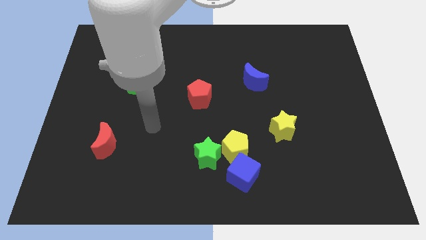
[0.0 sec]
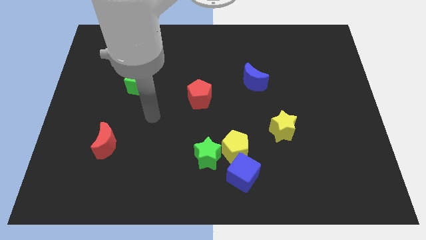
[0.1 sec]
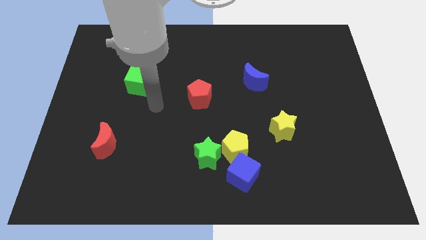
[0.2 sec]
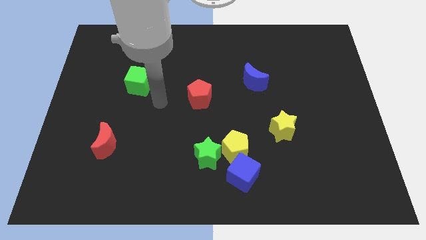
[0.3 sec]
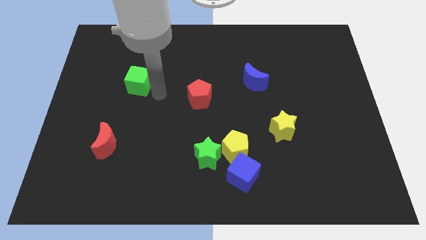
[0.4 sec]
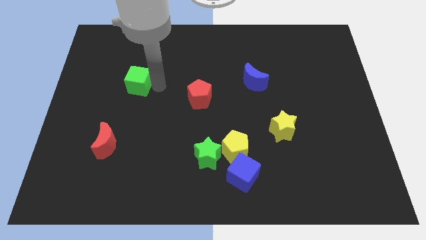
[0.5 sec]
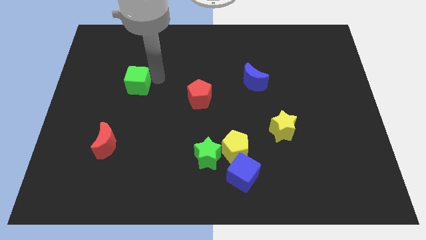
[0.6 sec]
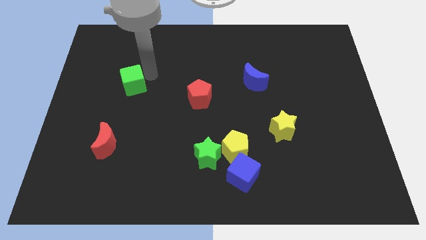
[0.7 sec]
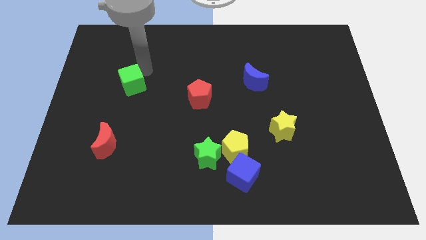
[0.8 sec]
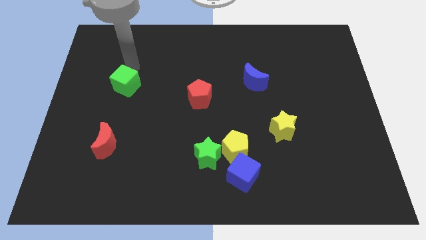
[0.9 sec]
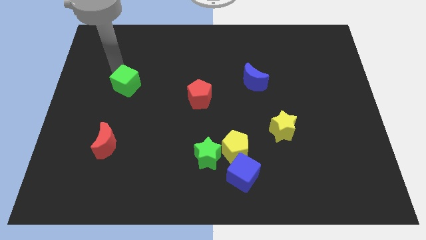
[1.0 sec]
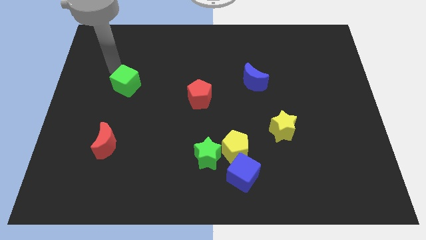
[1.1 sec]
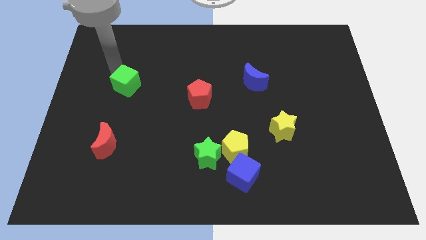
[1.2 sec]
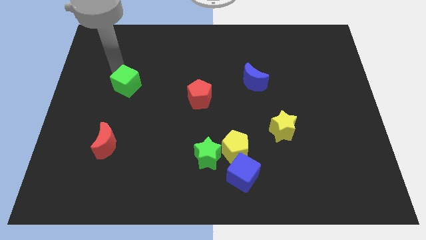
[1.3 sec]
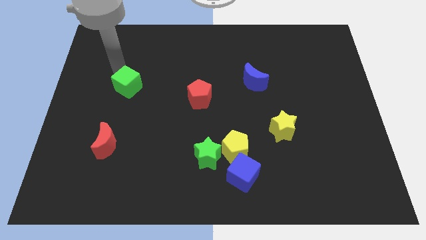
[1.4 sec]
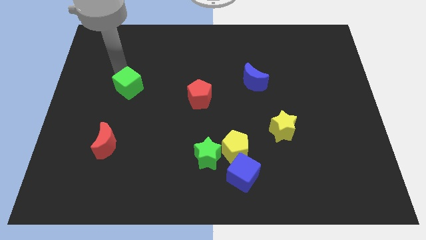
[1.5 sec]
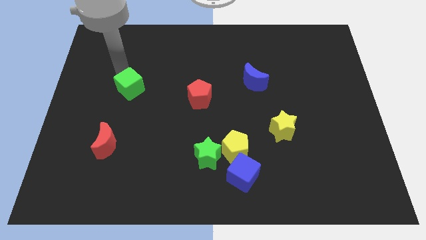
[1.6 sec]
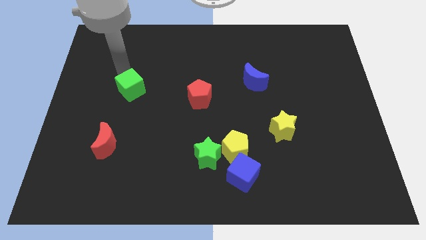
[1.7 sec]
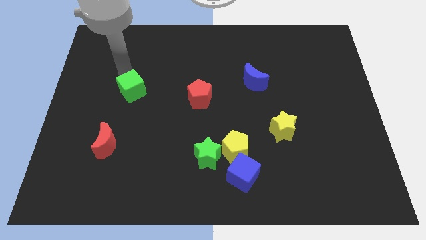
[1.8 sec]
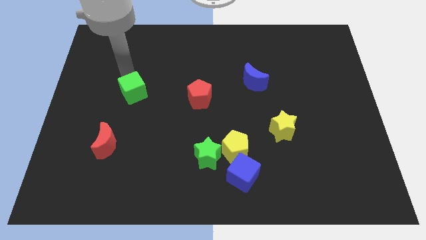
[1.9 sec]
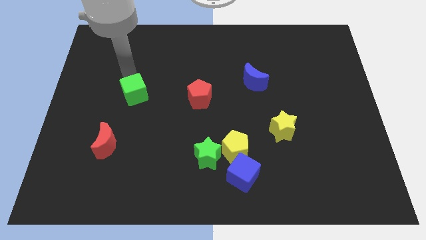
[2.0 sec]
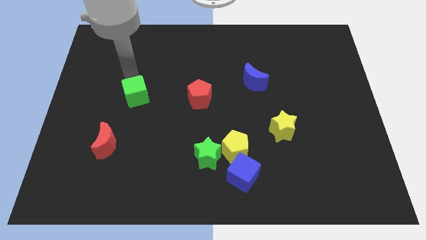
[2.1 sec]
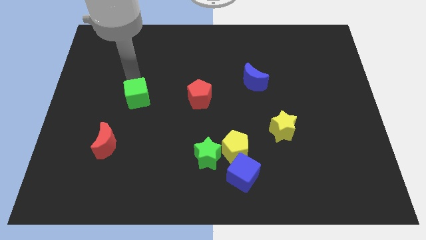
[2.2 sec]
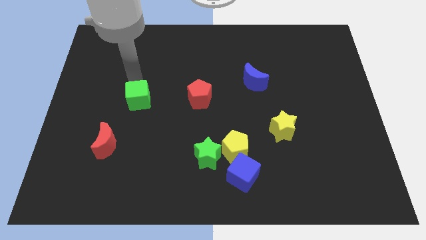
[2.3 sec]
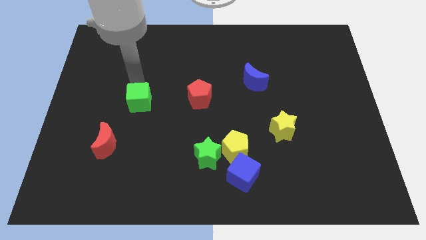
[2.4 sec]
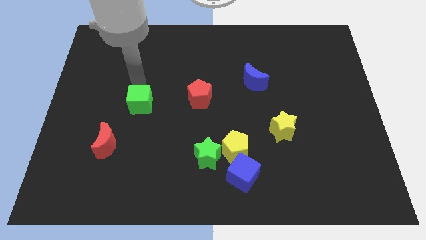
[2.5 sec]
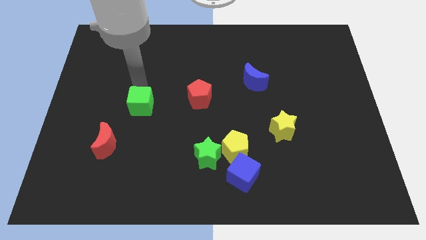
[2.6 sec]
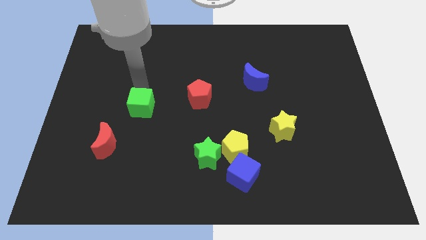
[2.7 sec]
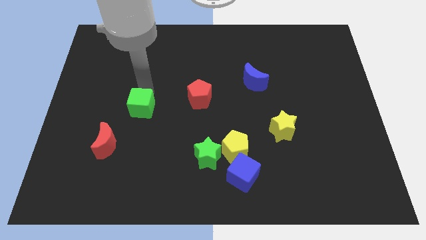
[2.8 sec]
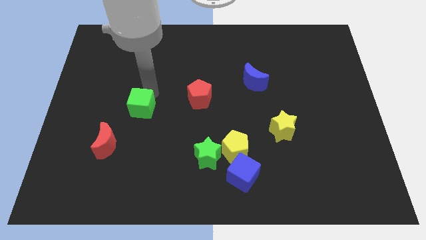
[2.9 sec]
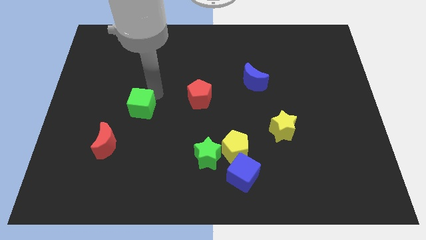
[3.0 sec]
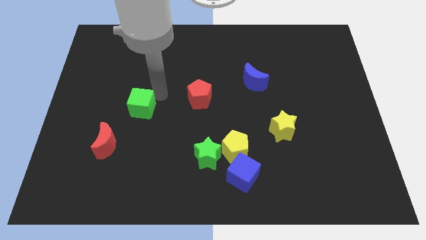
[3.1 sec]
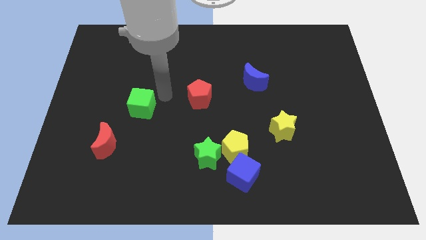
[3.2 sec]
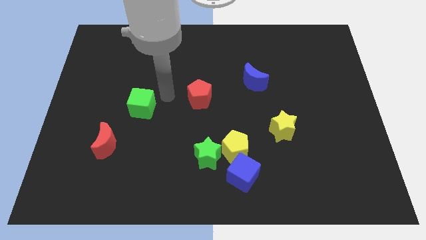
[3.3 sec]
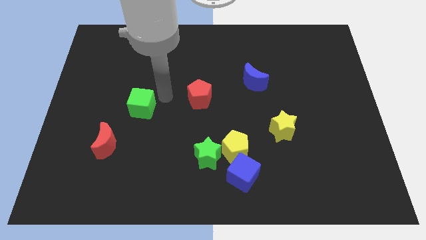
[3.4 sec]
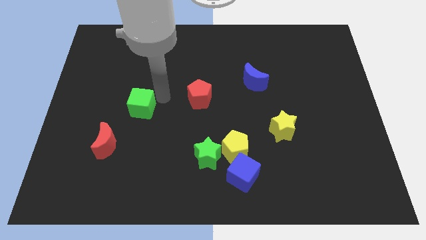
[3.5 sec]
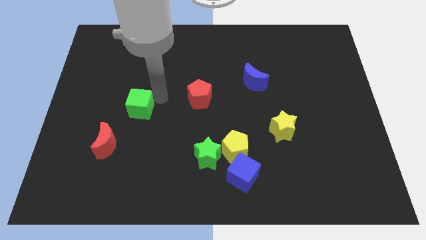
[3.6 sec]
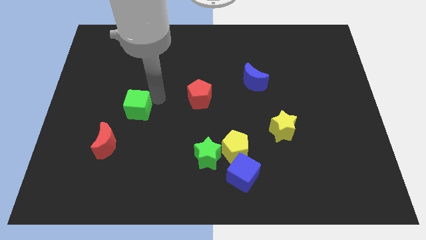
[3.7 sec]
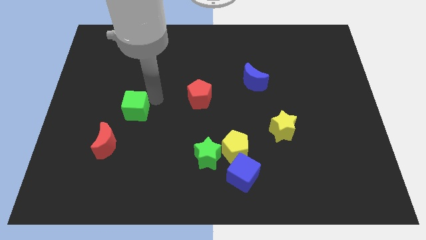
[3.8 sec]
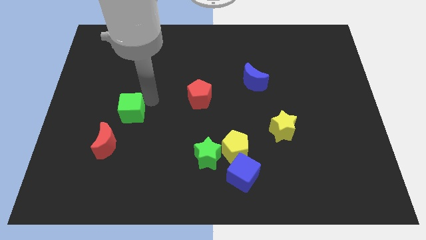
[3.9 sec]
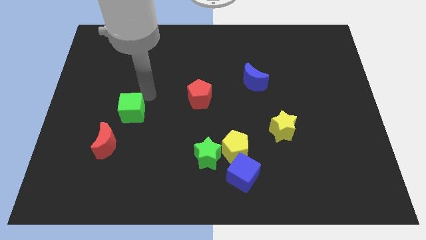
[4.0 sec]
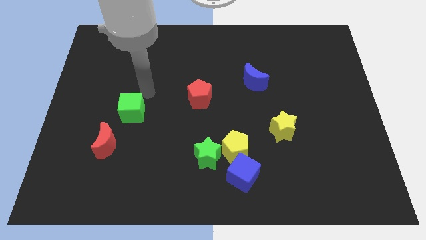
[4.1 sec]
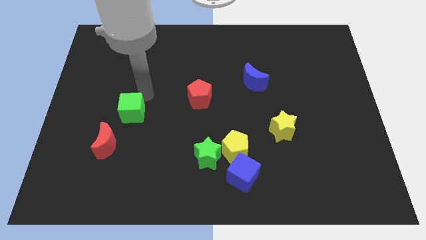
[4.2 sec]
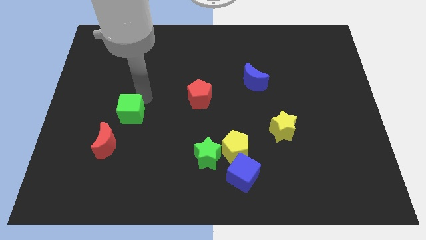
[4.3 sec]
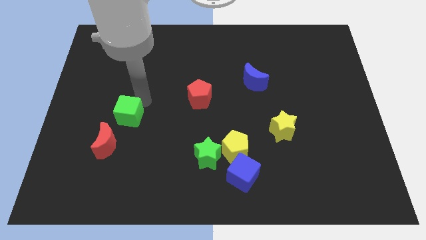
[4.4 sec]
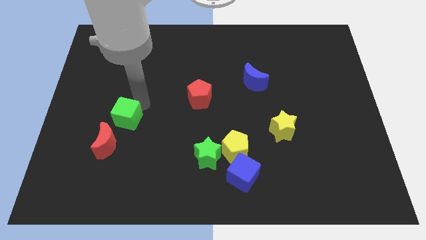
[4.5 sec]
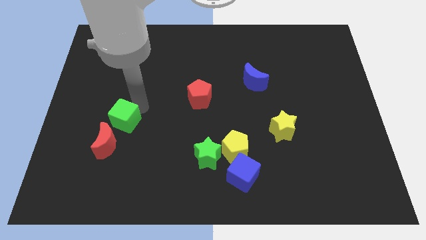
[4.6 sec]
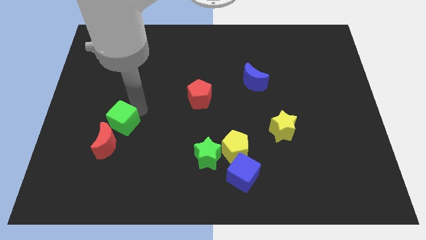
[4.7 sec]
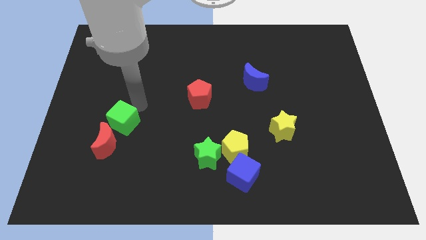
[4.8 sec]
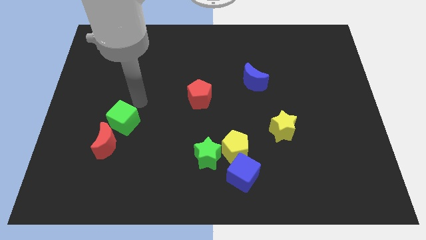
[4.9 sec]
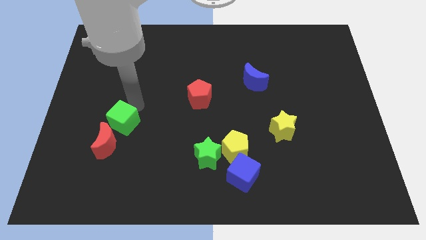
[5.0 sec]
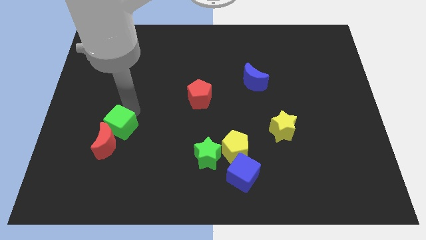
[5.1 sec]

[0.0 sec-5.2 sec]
move the green cube to the red moon

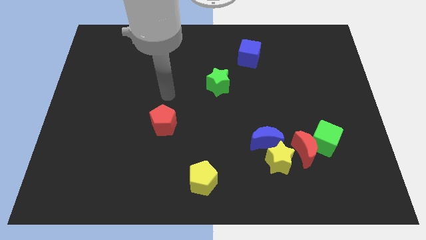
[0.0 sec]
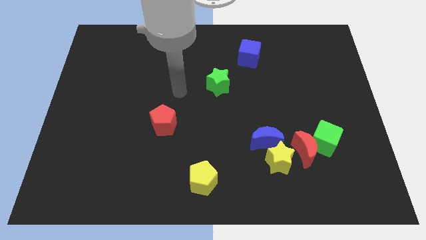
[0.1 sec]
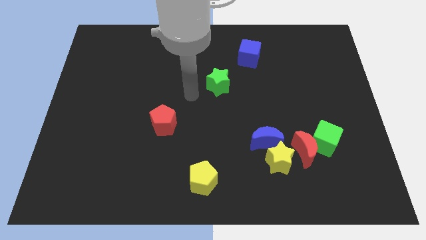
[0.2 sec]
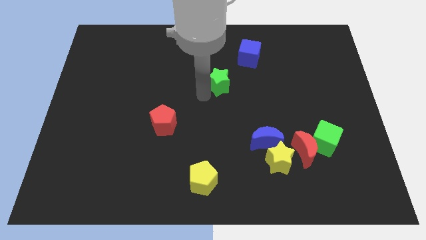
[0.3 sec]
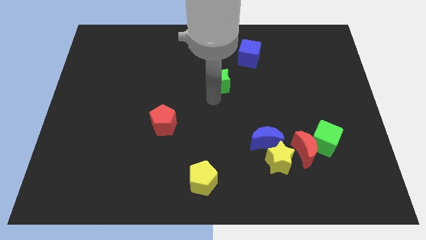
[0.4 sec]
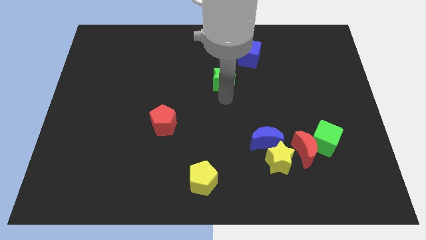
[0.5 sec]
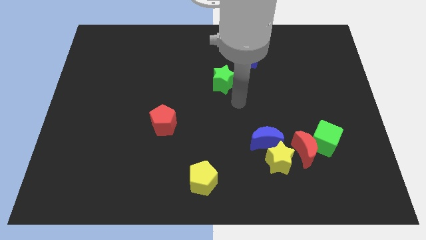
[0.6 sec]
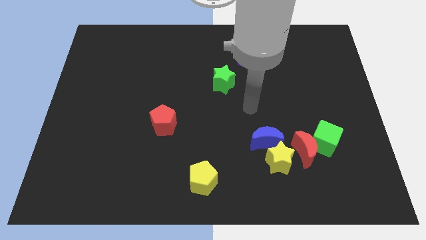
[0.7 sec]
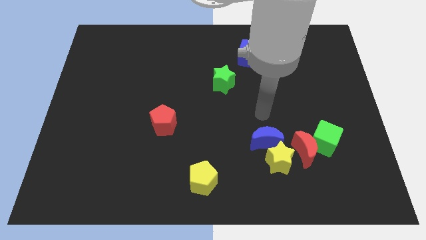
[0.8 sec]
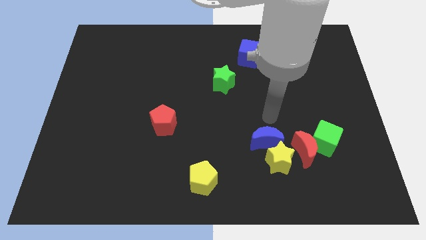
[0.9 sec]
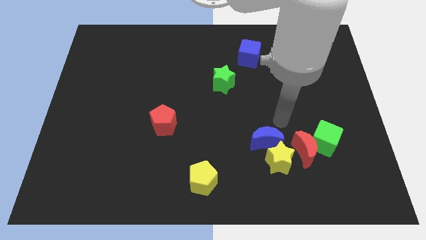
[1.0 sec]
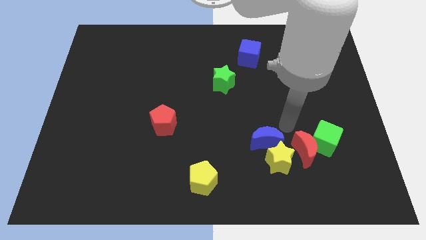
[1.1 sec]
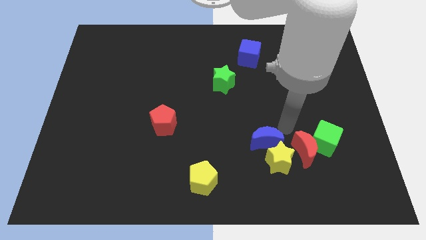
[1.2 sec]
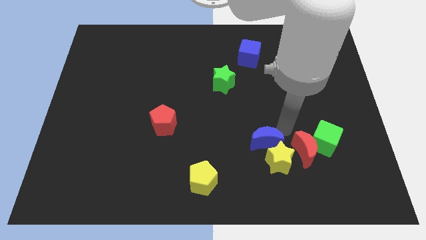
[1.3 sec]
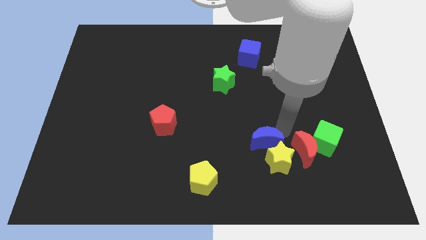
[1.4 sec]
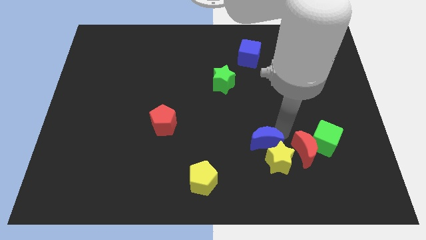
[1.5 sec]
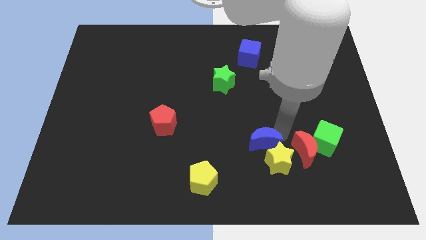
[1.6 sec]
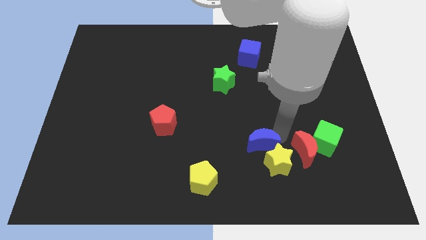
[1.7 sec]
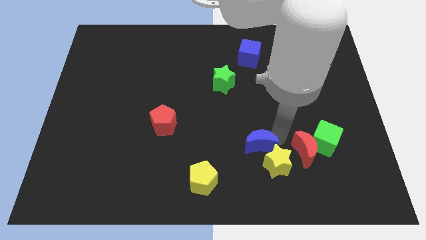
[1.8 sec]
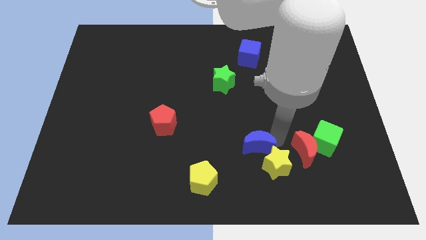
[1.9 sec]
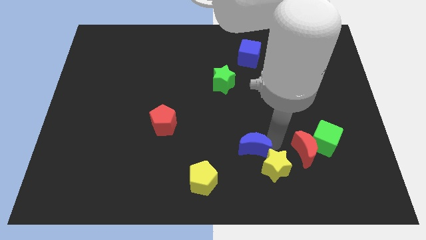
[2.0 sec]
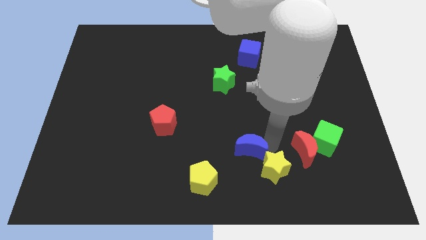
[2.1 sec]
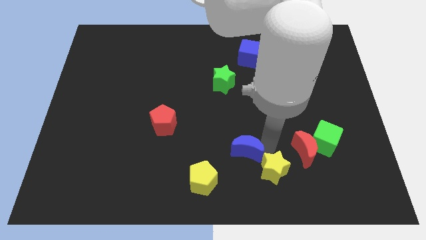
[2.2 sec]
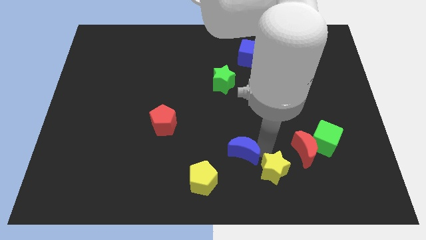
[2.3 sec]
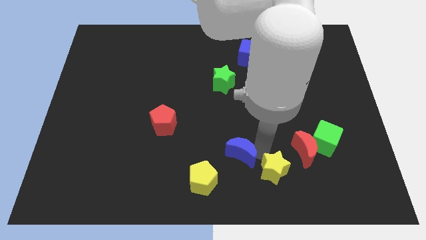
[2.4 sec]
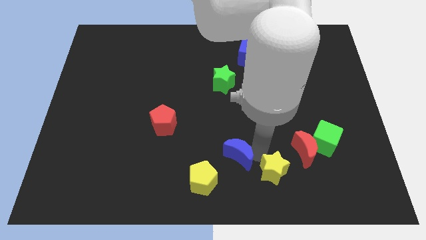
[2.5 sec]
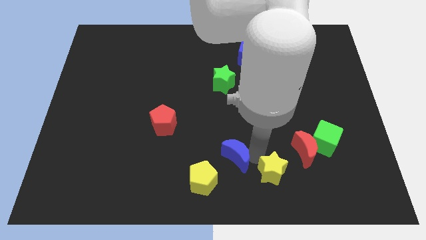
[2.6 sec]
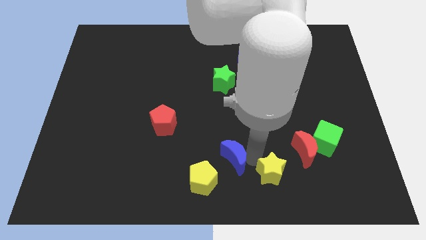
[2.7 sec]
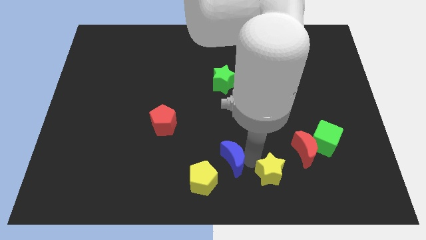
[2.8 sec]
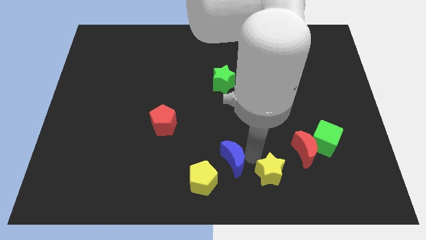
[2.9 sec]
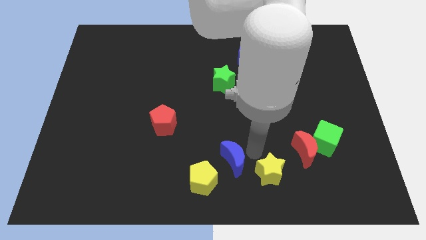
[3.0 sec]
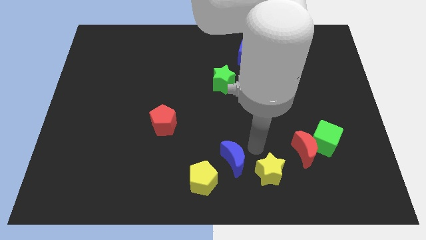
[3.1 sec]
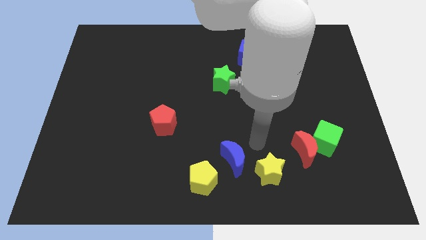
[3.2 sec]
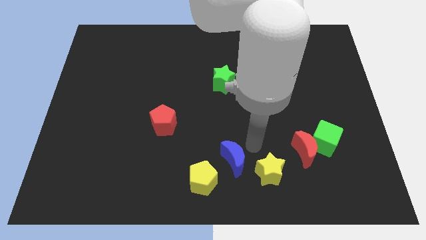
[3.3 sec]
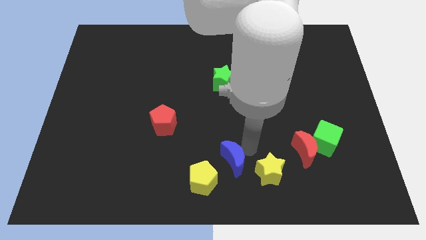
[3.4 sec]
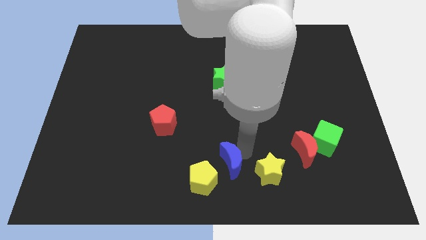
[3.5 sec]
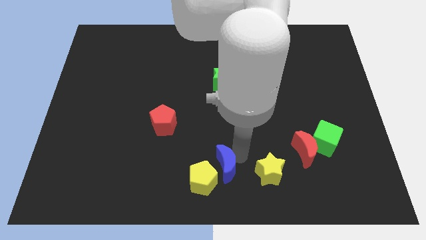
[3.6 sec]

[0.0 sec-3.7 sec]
put the blue moon close to the yellow pentagon
